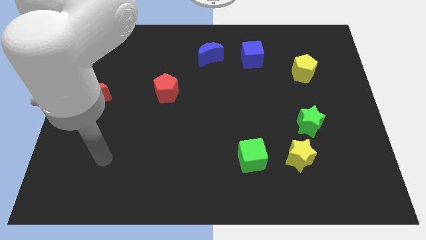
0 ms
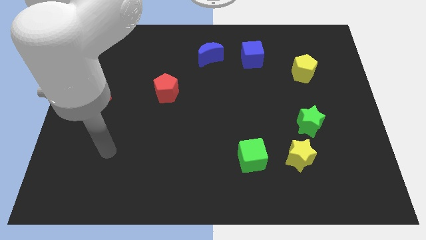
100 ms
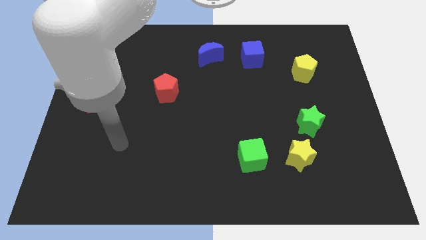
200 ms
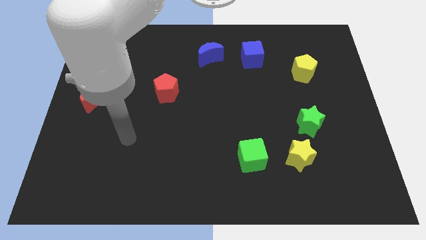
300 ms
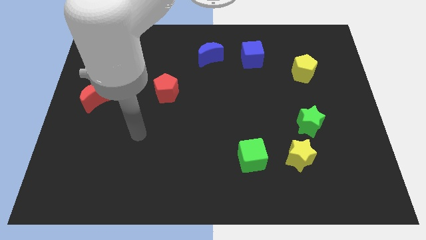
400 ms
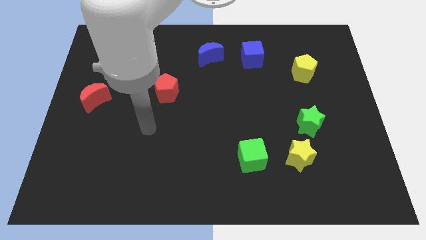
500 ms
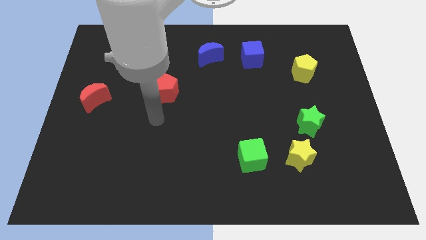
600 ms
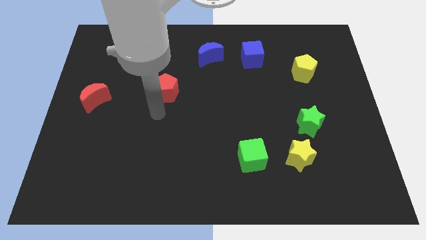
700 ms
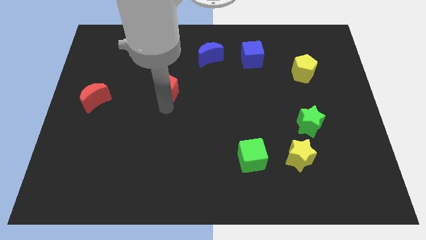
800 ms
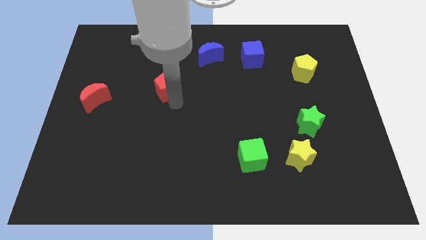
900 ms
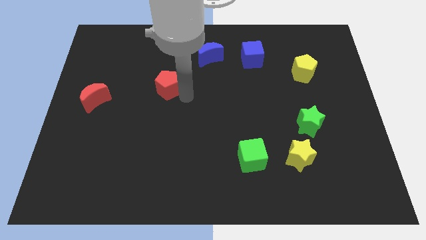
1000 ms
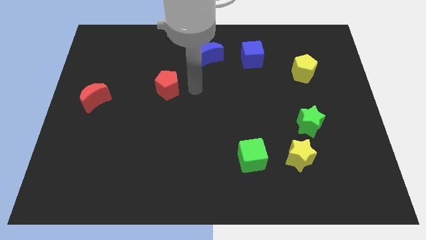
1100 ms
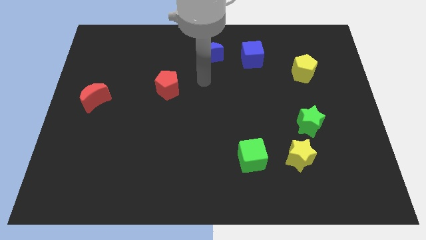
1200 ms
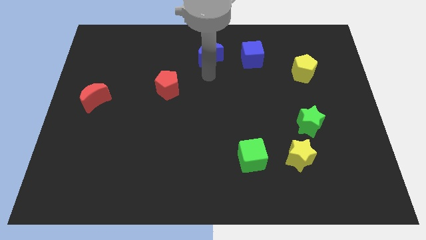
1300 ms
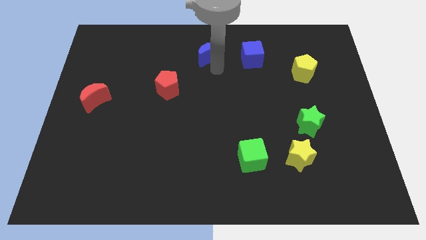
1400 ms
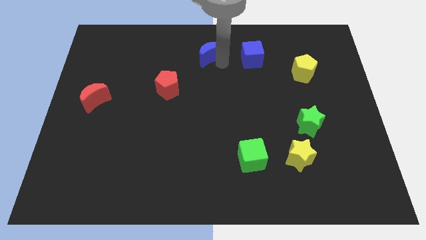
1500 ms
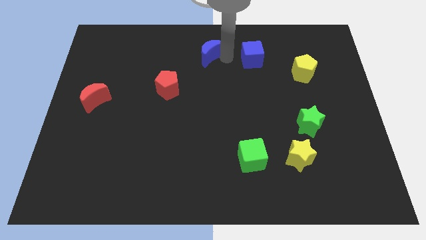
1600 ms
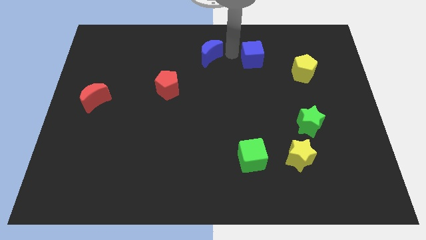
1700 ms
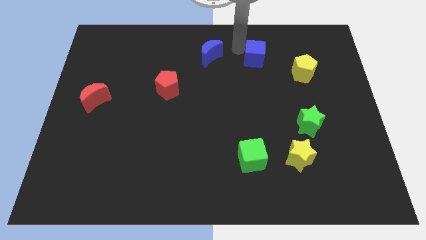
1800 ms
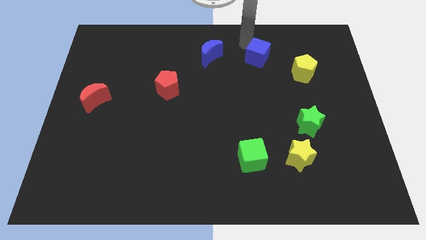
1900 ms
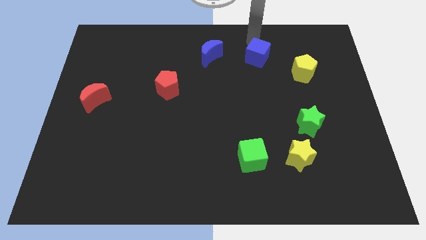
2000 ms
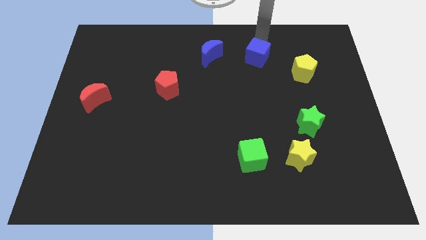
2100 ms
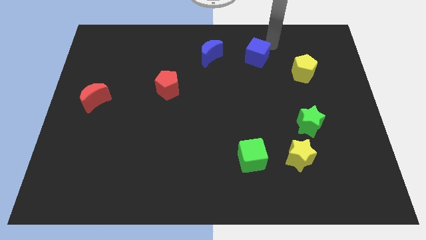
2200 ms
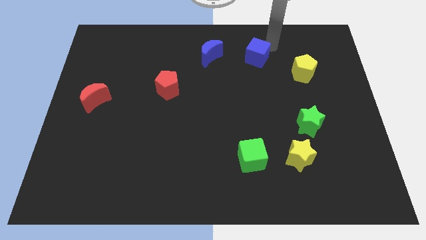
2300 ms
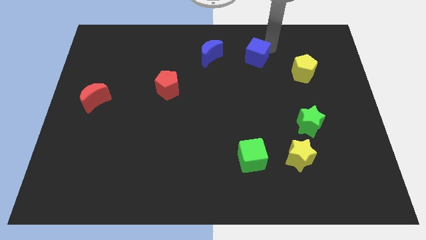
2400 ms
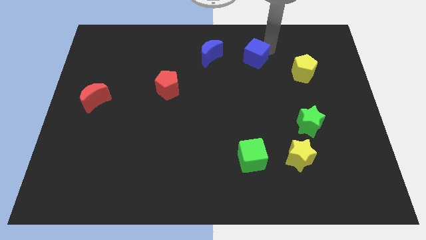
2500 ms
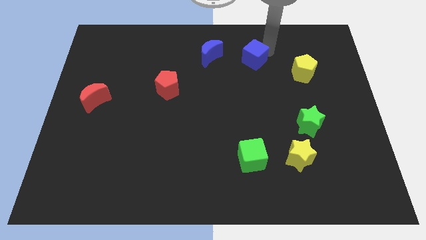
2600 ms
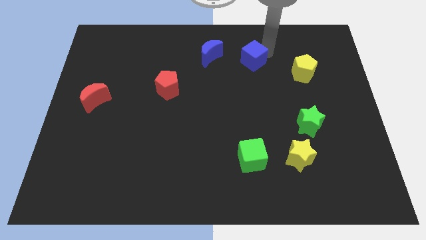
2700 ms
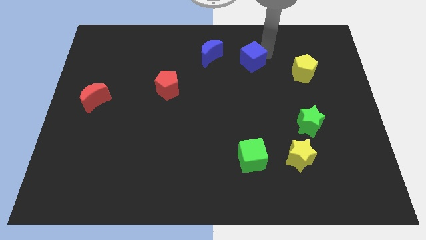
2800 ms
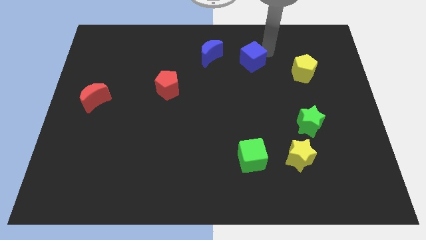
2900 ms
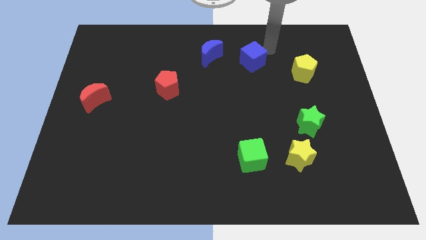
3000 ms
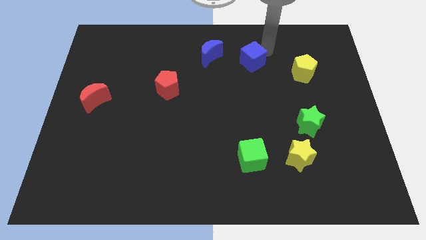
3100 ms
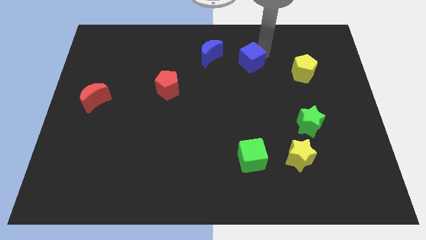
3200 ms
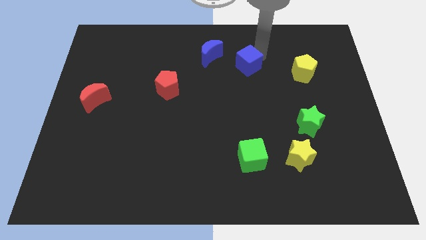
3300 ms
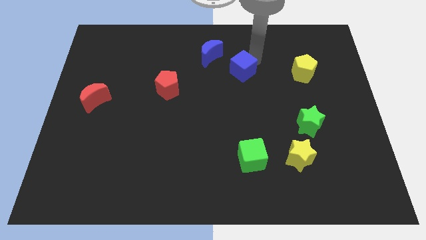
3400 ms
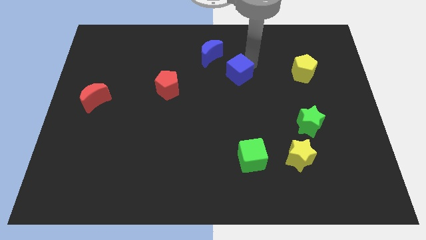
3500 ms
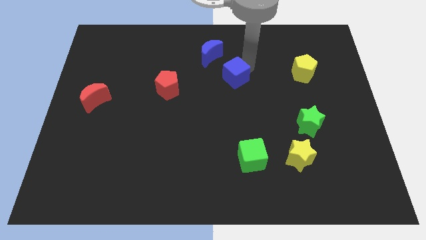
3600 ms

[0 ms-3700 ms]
slightly push the blue cube down and to the left diagonally

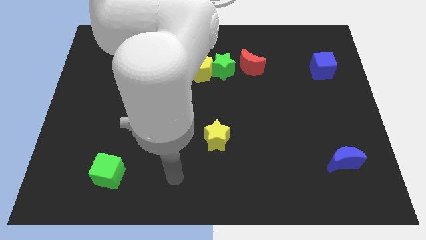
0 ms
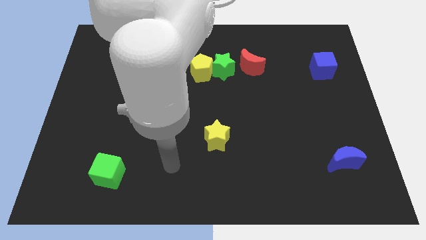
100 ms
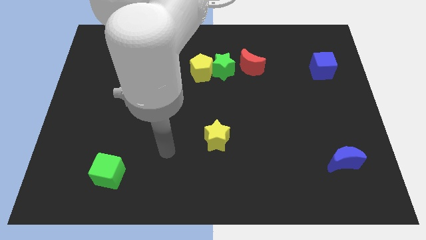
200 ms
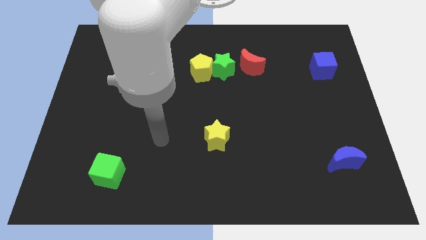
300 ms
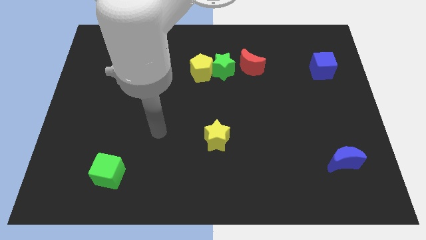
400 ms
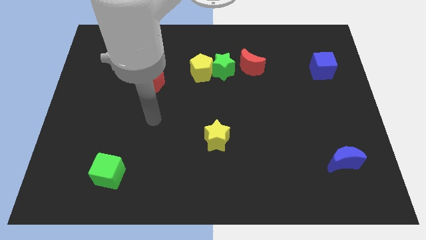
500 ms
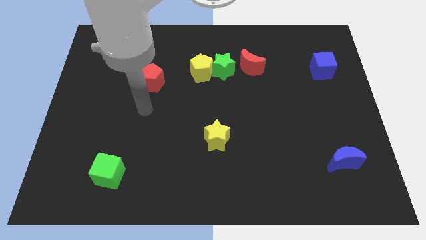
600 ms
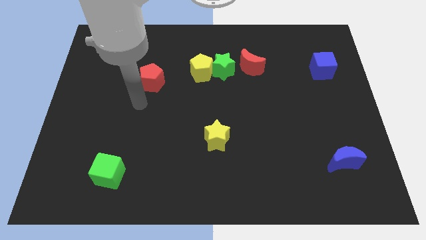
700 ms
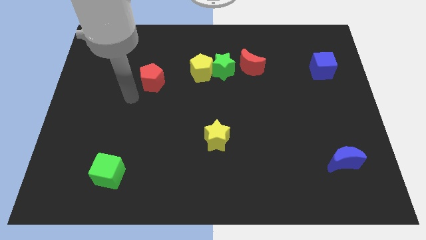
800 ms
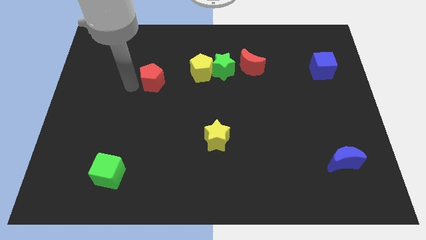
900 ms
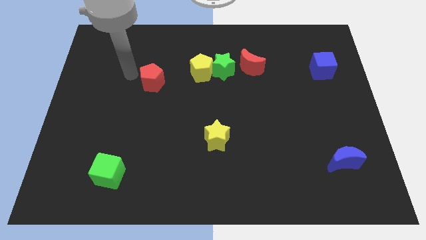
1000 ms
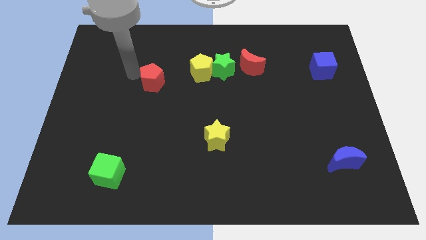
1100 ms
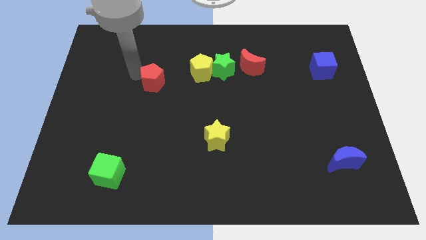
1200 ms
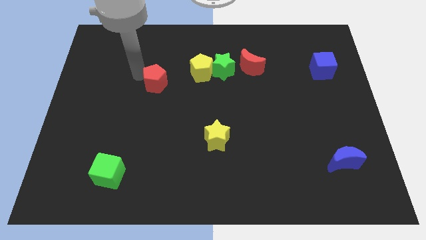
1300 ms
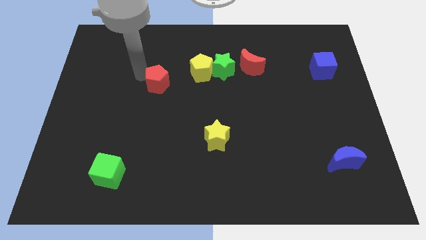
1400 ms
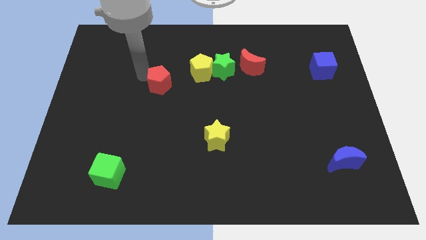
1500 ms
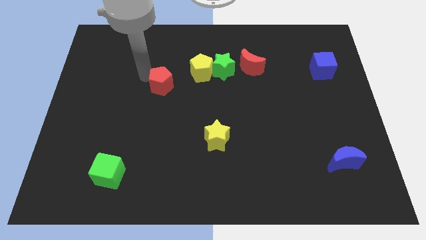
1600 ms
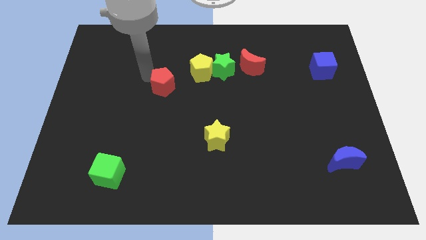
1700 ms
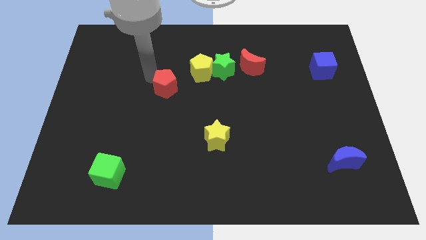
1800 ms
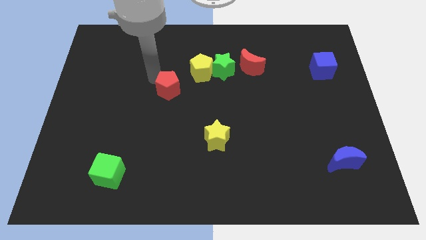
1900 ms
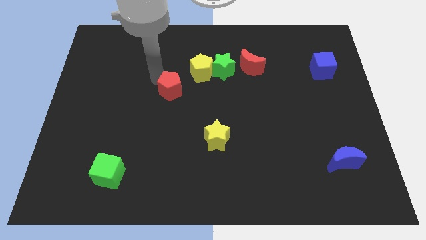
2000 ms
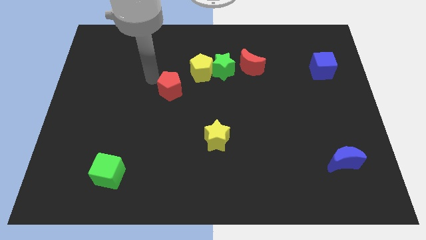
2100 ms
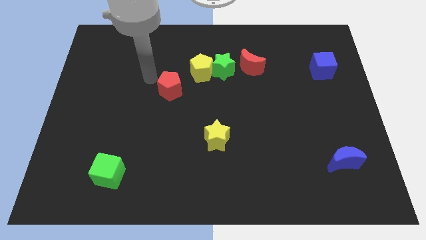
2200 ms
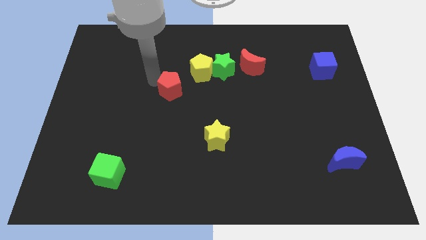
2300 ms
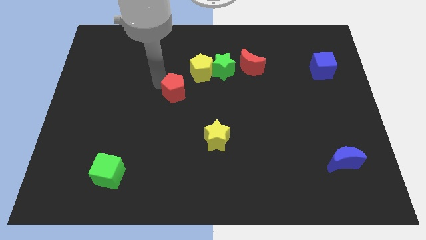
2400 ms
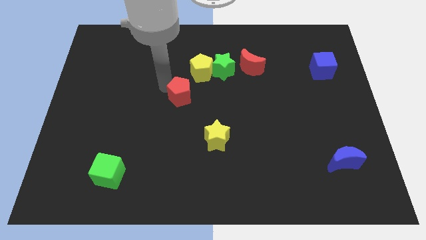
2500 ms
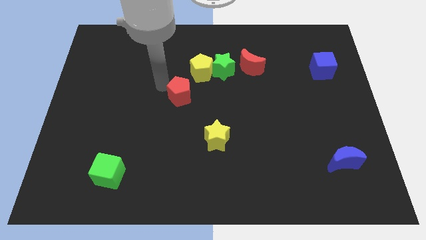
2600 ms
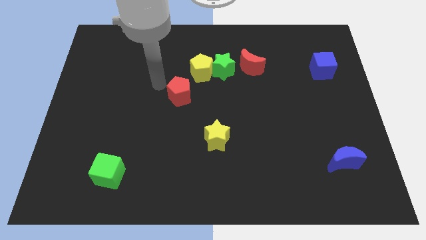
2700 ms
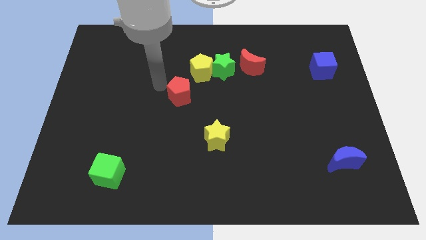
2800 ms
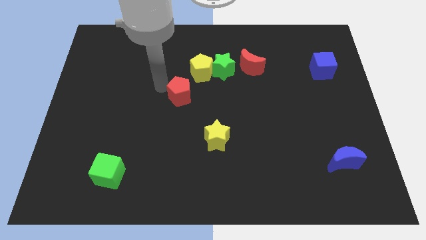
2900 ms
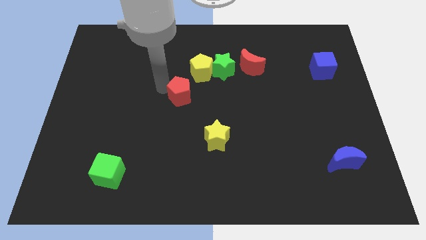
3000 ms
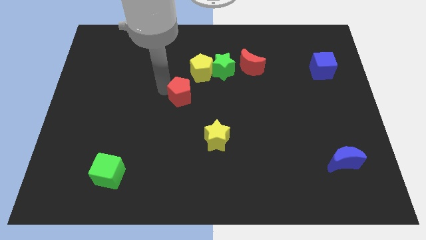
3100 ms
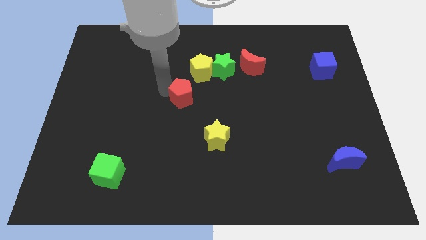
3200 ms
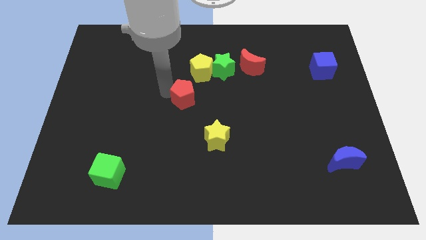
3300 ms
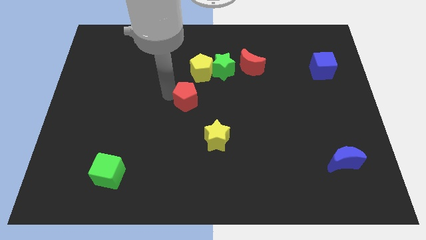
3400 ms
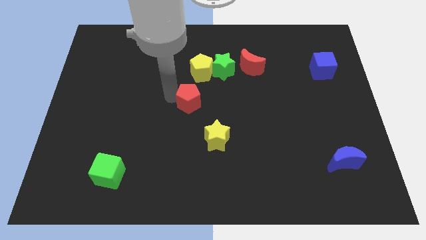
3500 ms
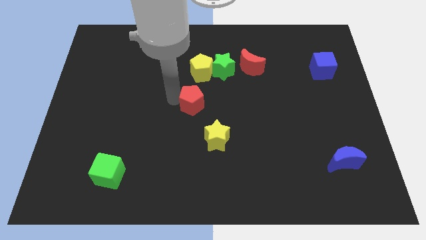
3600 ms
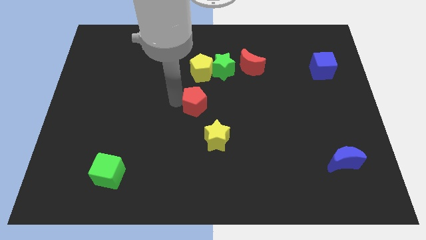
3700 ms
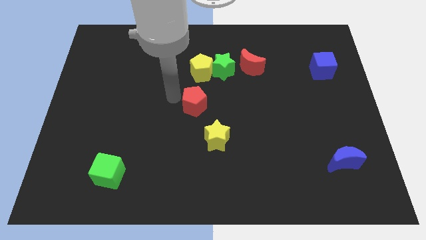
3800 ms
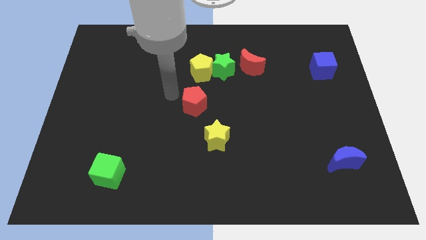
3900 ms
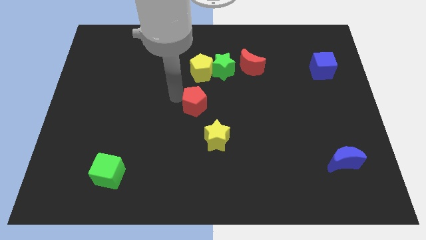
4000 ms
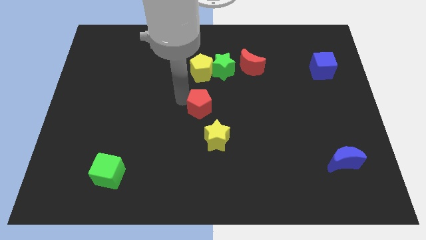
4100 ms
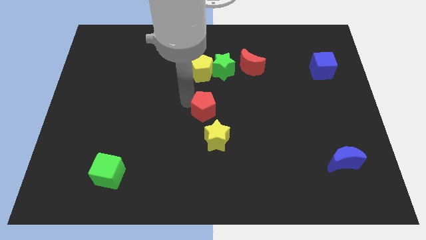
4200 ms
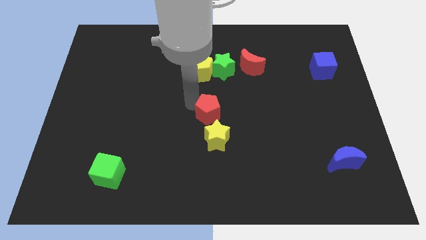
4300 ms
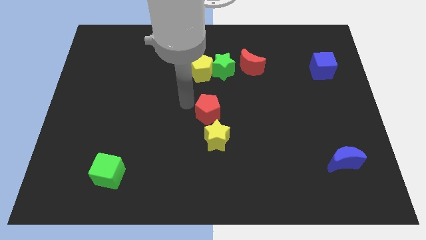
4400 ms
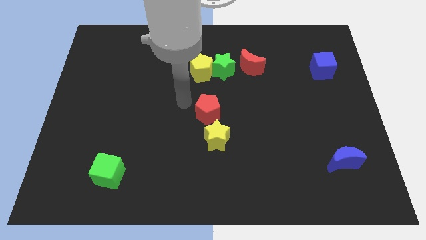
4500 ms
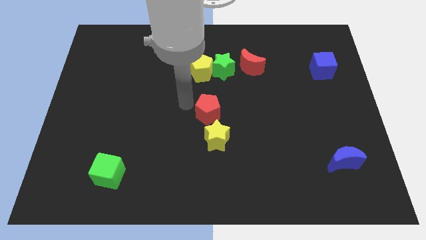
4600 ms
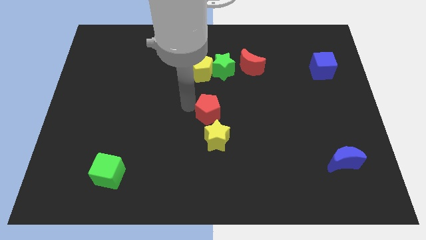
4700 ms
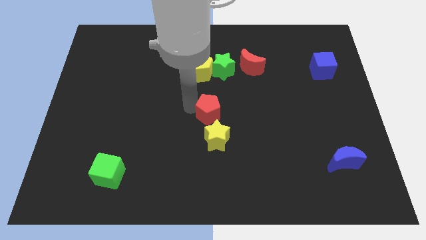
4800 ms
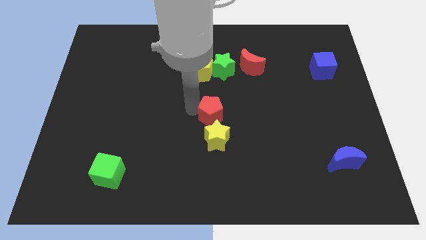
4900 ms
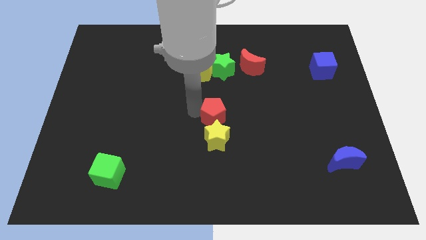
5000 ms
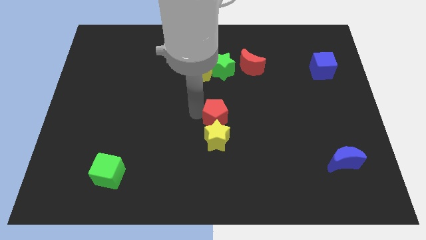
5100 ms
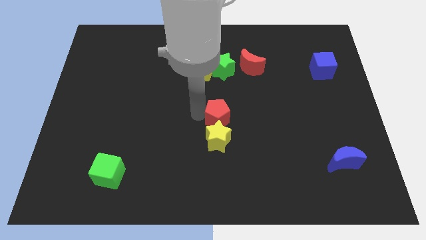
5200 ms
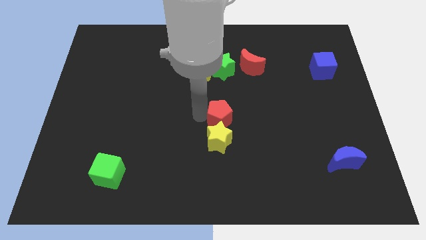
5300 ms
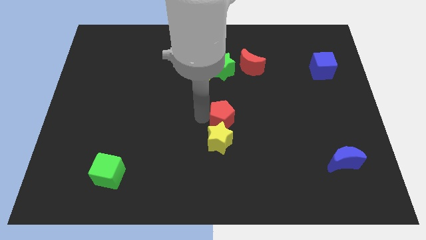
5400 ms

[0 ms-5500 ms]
move the red pentagon downwards and right diagonally
